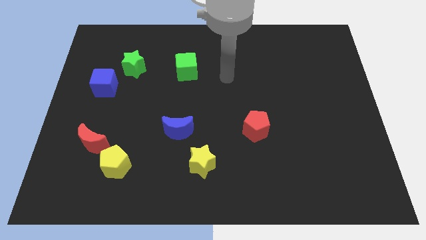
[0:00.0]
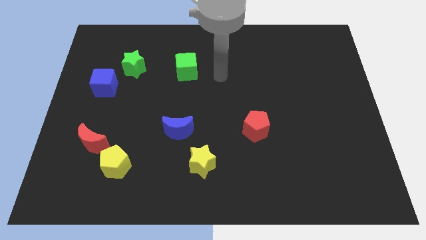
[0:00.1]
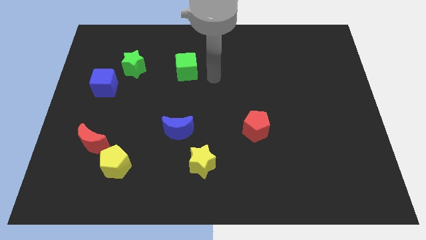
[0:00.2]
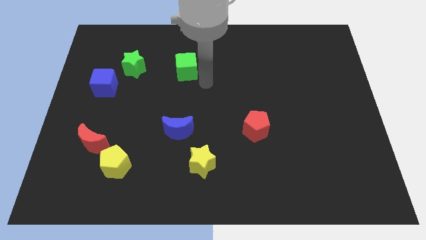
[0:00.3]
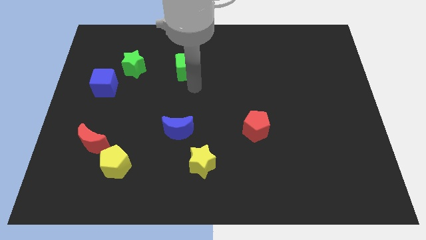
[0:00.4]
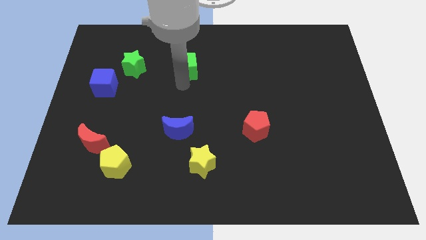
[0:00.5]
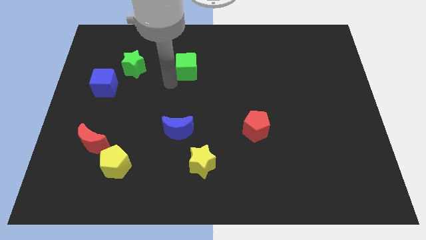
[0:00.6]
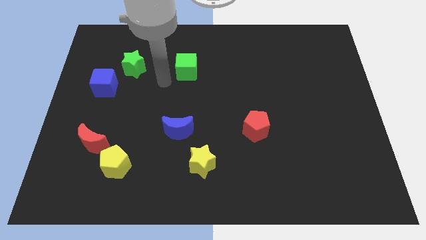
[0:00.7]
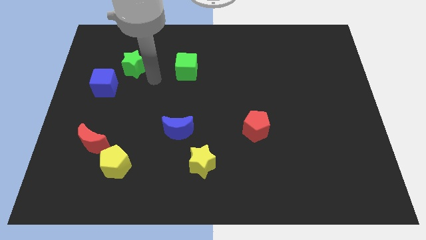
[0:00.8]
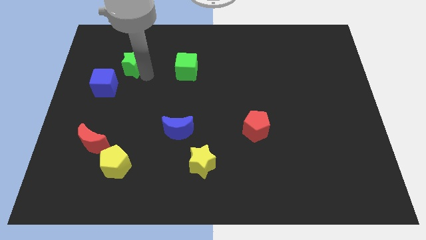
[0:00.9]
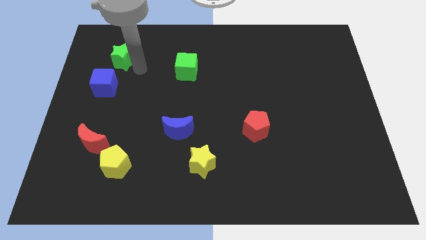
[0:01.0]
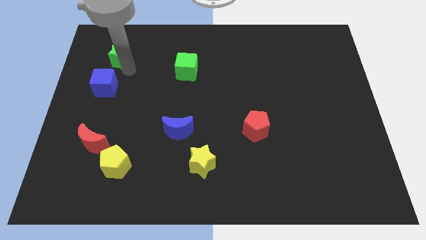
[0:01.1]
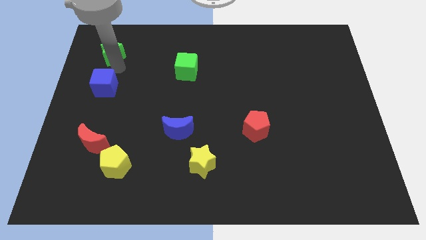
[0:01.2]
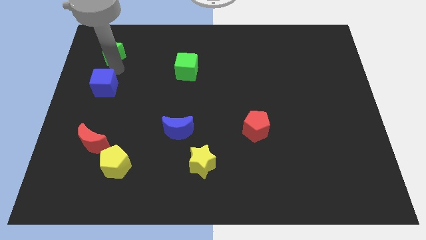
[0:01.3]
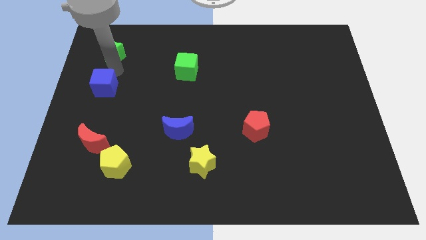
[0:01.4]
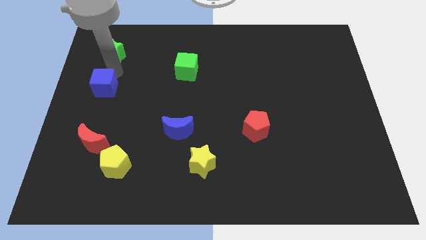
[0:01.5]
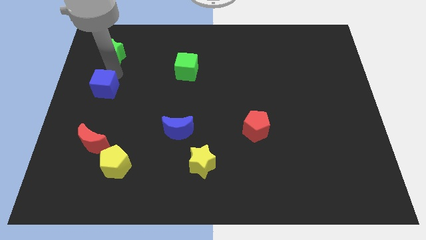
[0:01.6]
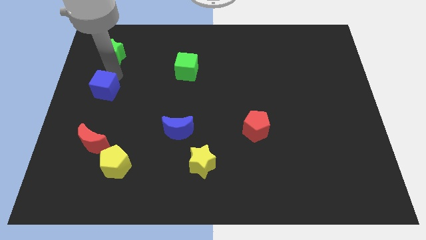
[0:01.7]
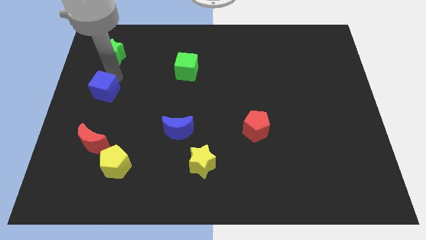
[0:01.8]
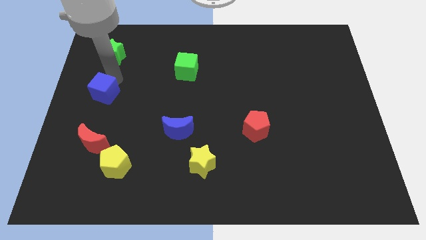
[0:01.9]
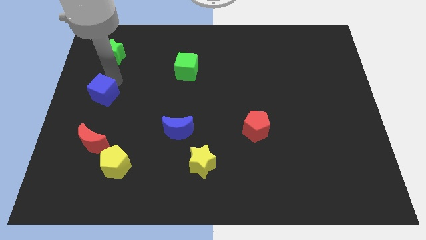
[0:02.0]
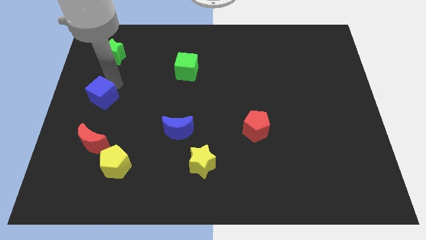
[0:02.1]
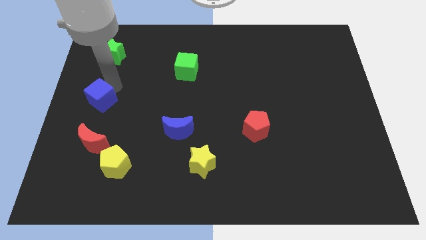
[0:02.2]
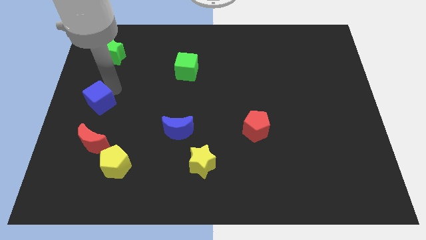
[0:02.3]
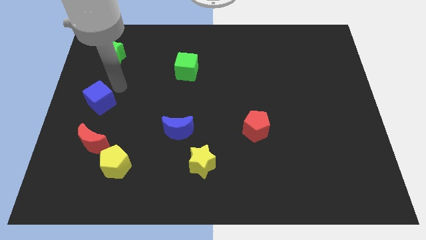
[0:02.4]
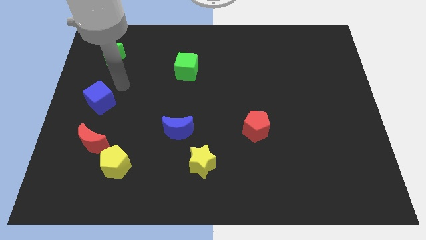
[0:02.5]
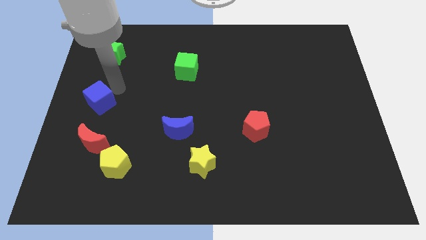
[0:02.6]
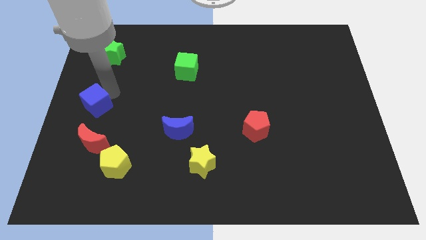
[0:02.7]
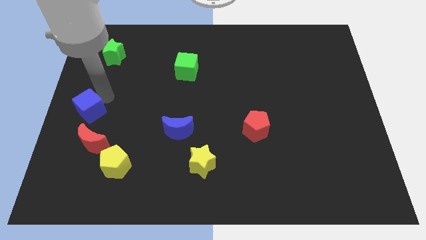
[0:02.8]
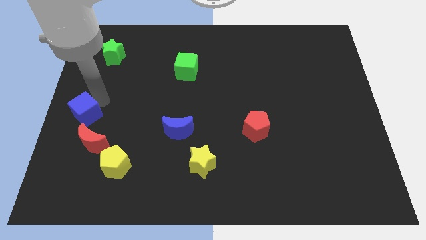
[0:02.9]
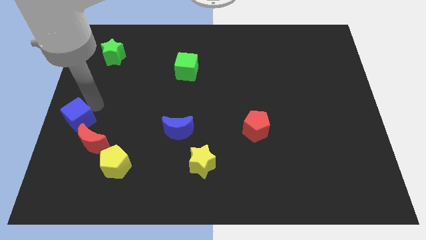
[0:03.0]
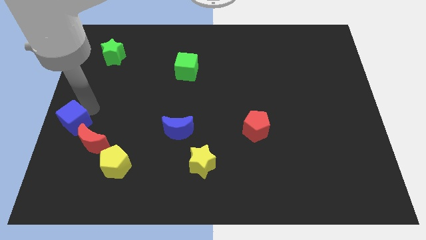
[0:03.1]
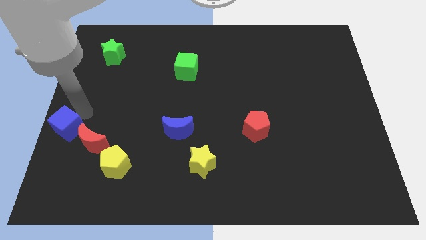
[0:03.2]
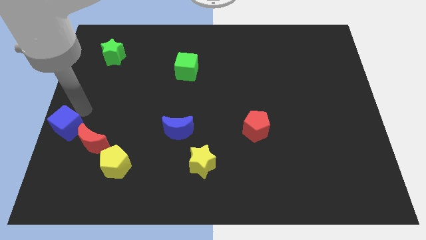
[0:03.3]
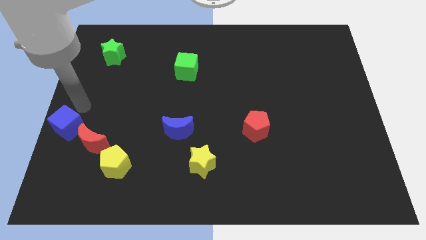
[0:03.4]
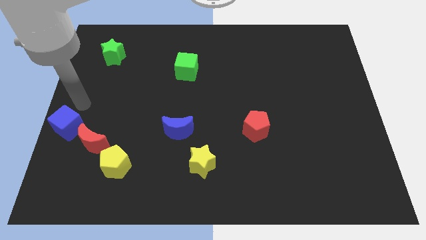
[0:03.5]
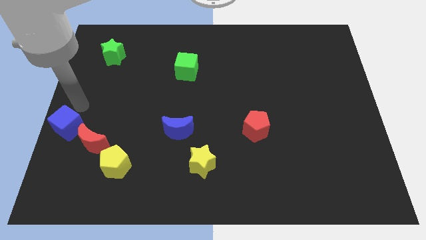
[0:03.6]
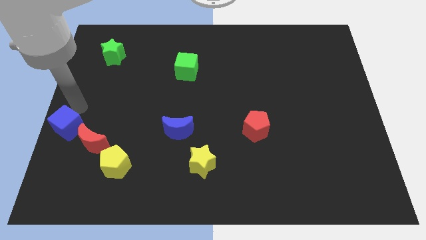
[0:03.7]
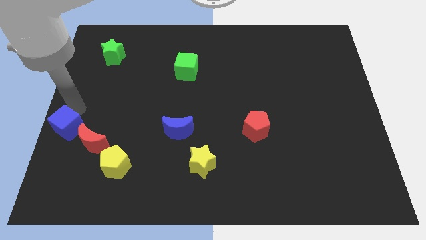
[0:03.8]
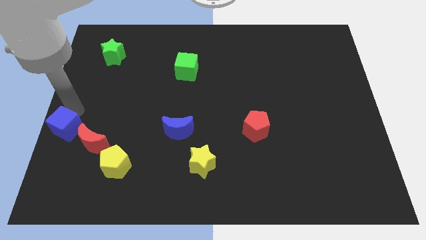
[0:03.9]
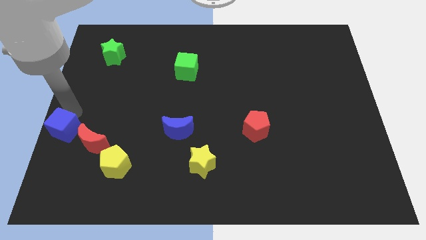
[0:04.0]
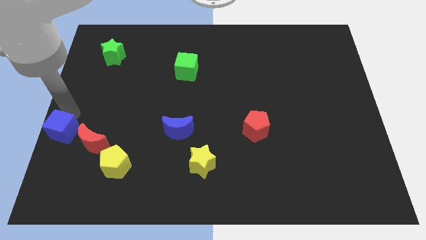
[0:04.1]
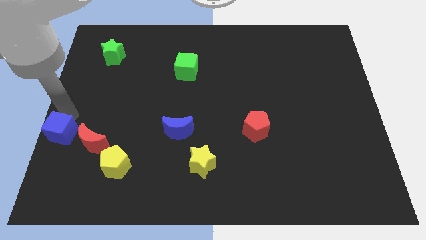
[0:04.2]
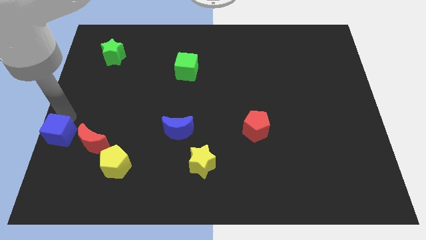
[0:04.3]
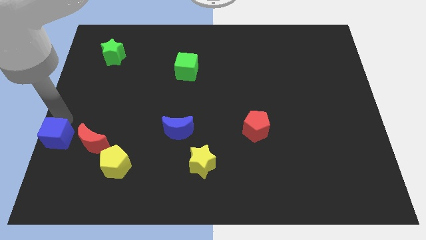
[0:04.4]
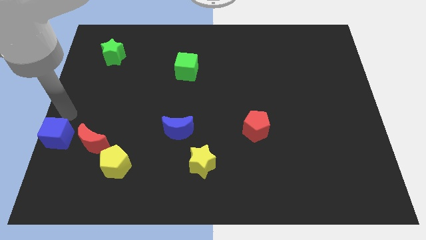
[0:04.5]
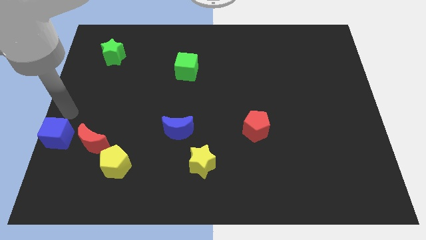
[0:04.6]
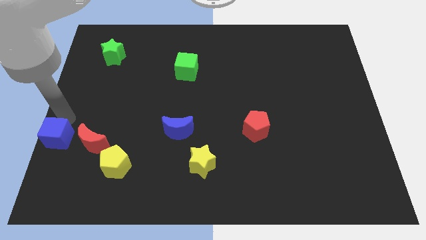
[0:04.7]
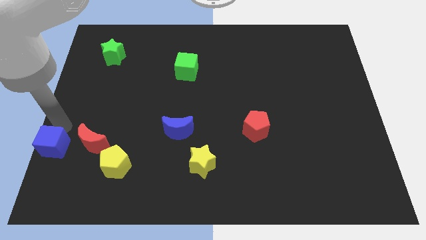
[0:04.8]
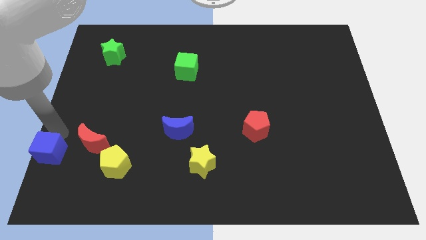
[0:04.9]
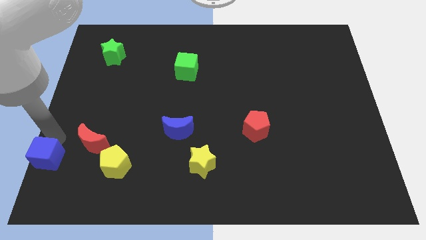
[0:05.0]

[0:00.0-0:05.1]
put the blue cube to the bottom left of the board

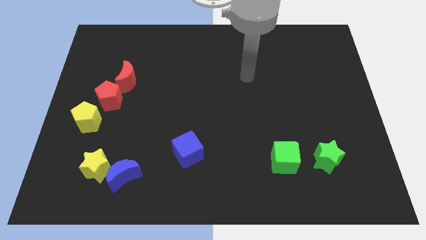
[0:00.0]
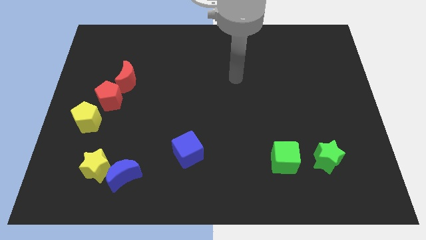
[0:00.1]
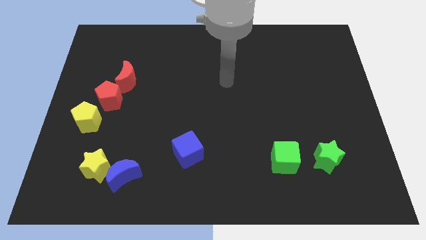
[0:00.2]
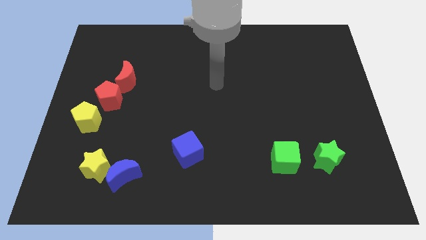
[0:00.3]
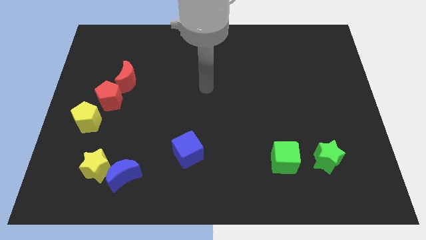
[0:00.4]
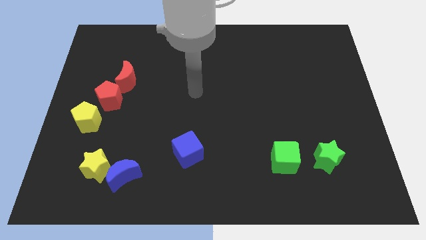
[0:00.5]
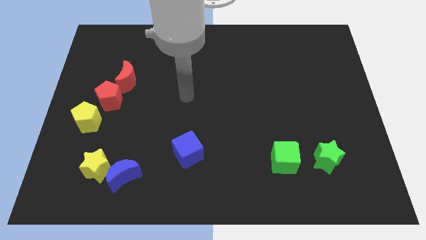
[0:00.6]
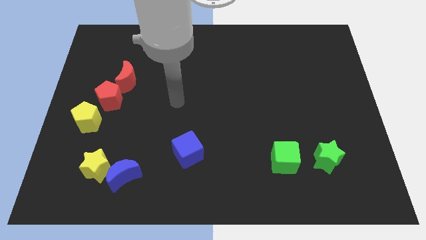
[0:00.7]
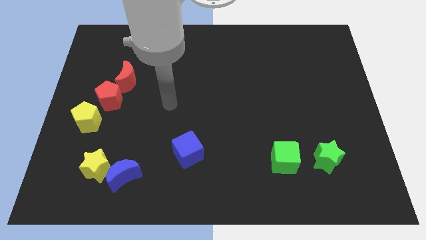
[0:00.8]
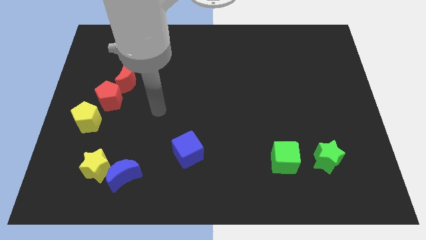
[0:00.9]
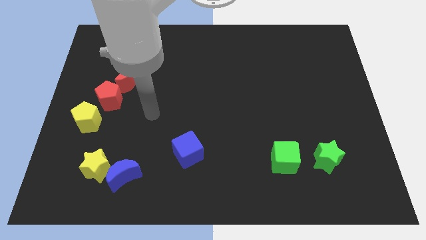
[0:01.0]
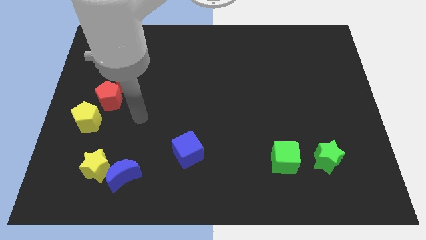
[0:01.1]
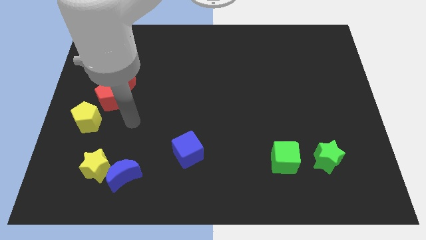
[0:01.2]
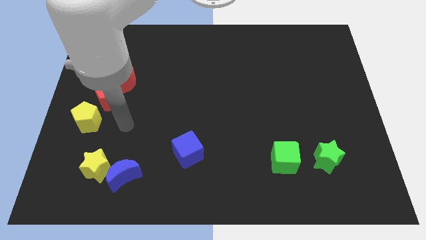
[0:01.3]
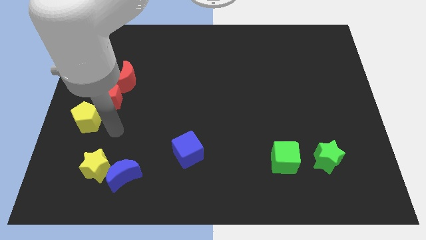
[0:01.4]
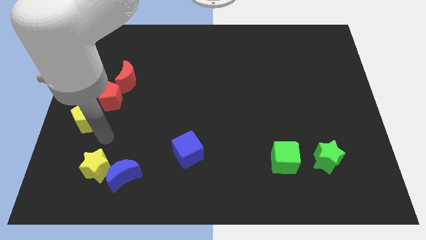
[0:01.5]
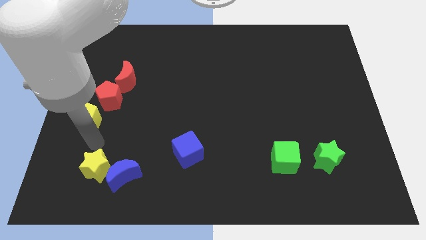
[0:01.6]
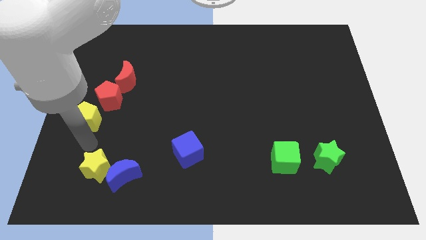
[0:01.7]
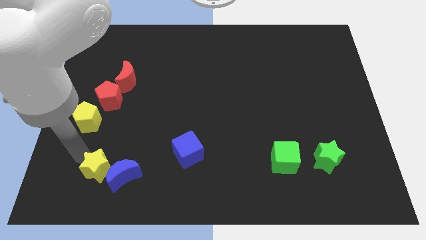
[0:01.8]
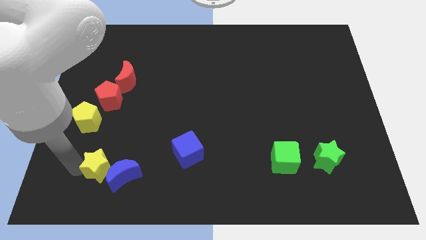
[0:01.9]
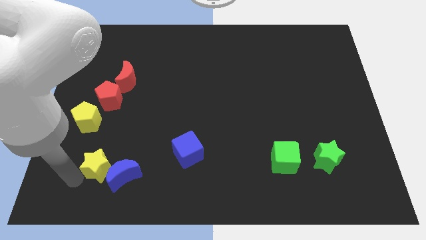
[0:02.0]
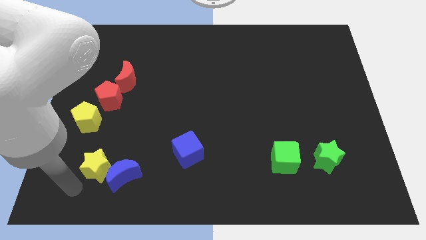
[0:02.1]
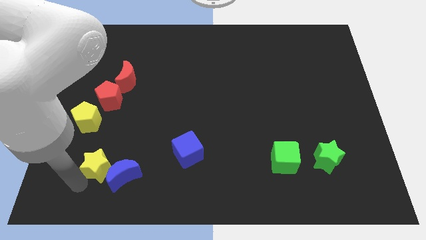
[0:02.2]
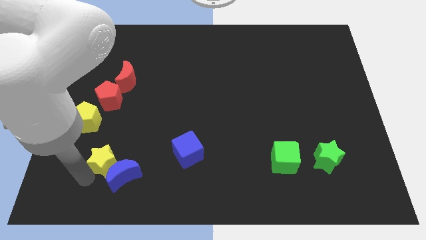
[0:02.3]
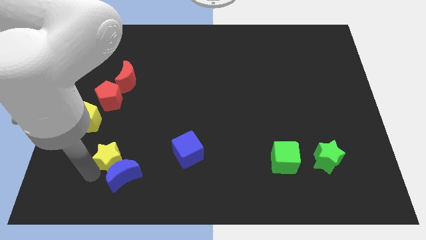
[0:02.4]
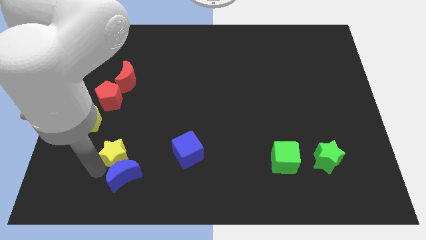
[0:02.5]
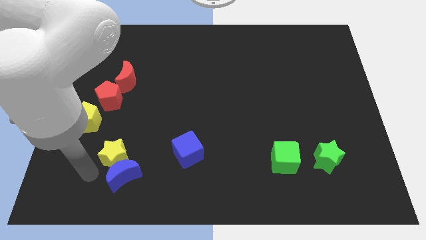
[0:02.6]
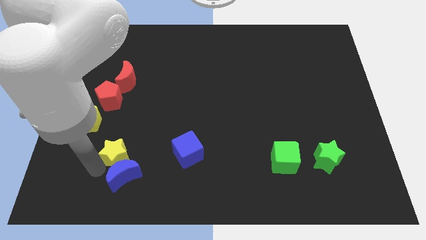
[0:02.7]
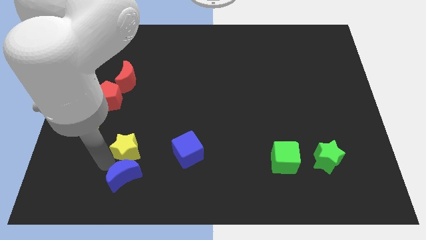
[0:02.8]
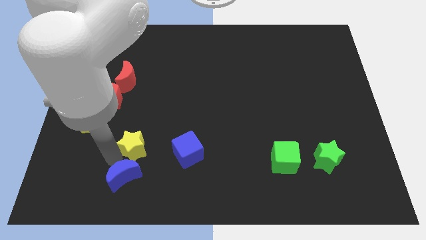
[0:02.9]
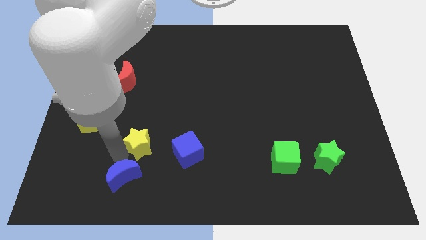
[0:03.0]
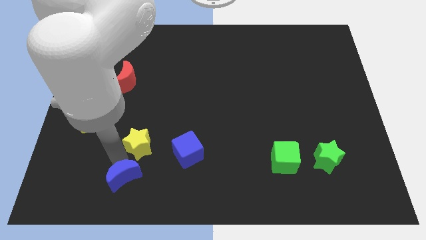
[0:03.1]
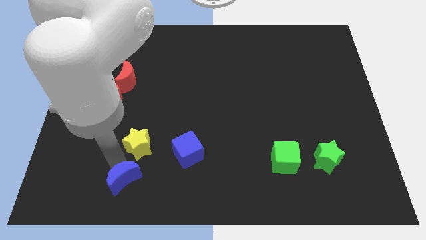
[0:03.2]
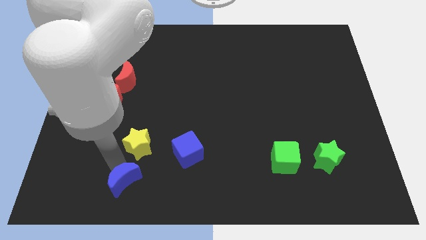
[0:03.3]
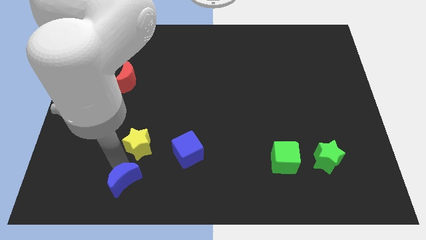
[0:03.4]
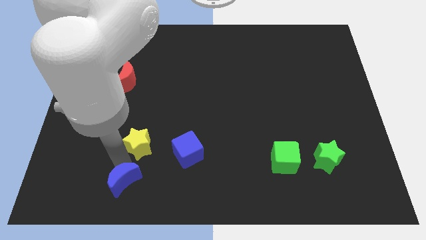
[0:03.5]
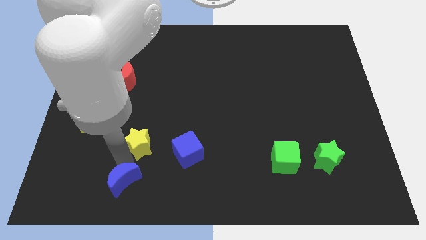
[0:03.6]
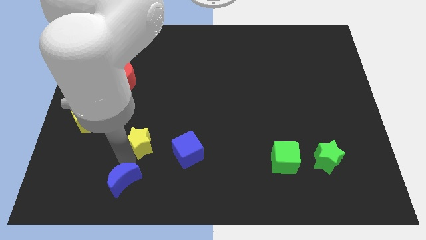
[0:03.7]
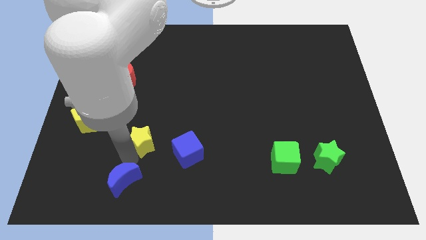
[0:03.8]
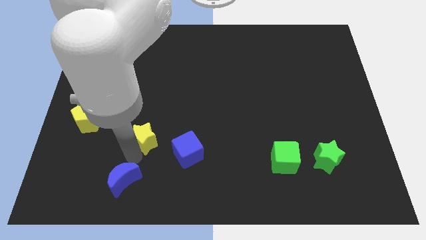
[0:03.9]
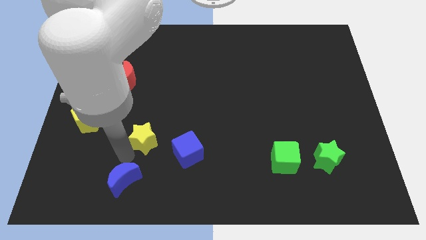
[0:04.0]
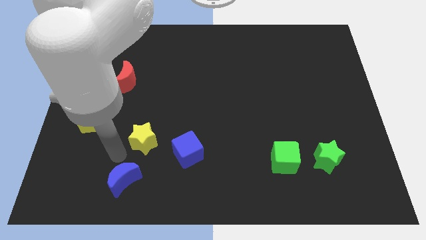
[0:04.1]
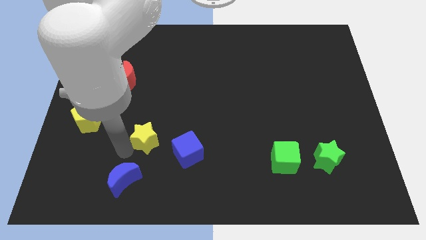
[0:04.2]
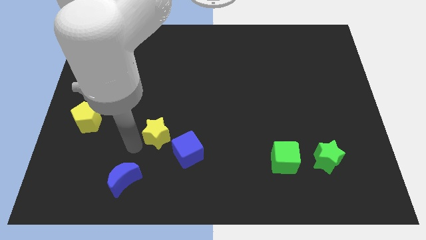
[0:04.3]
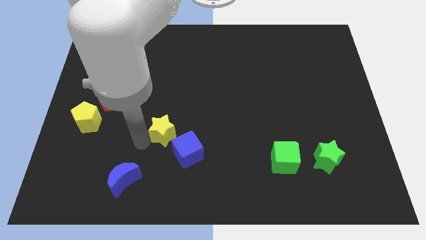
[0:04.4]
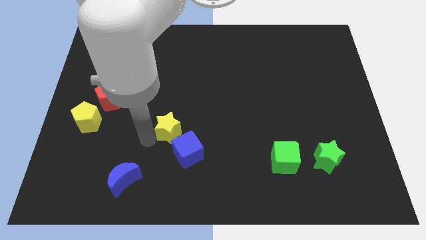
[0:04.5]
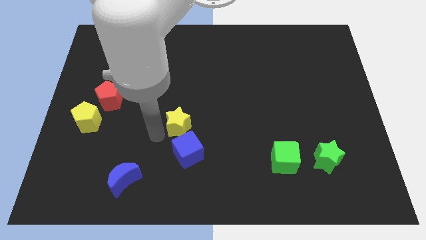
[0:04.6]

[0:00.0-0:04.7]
push the yellow star to the center
